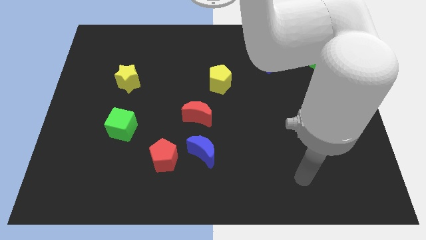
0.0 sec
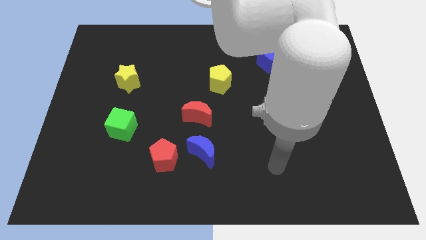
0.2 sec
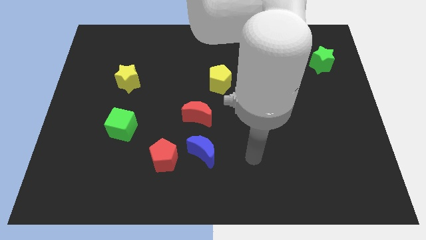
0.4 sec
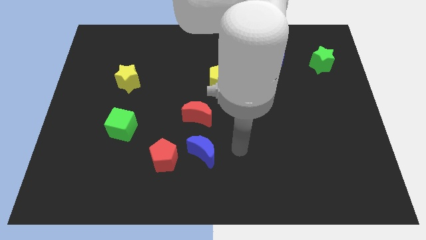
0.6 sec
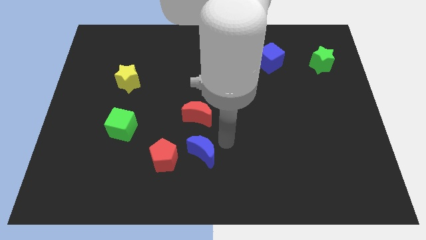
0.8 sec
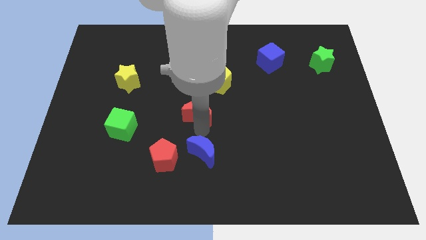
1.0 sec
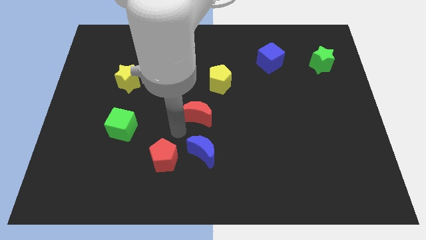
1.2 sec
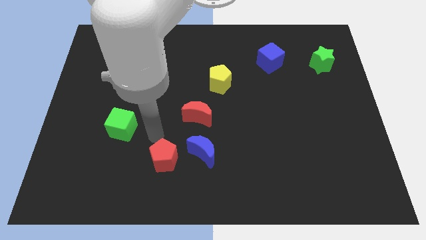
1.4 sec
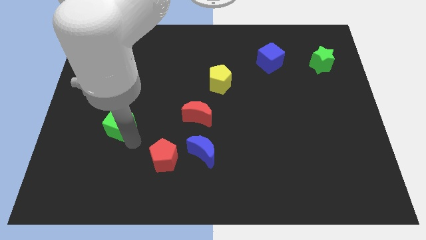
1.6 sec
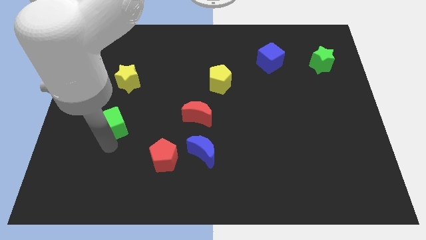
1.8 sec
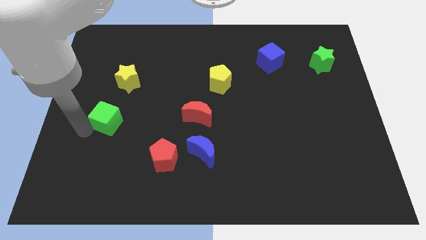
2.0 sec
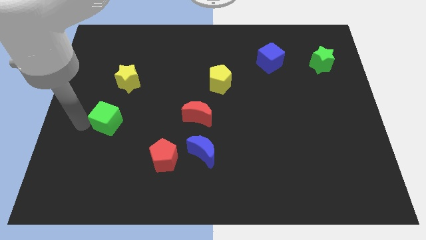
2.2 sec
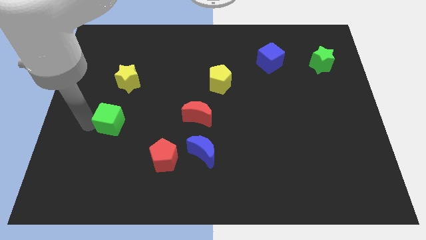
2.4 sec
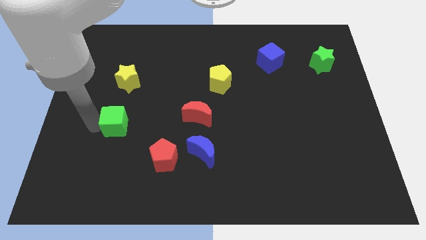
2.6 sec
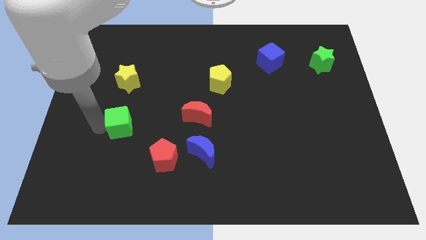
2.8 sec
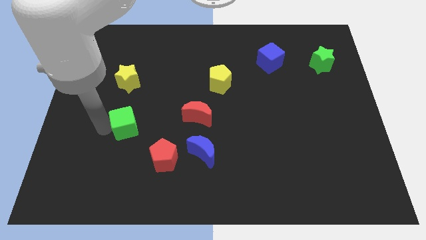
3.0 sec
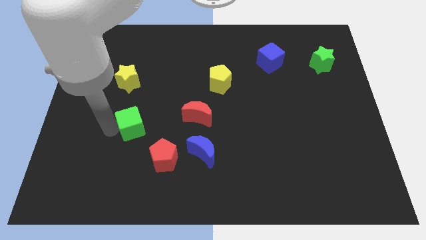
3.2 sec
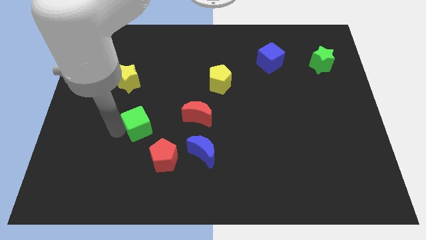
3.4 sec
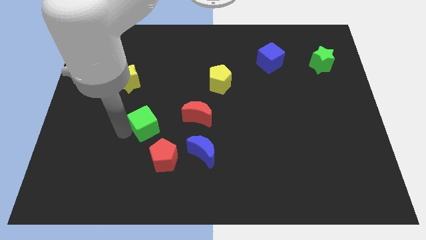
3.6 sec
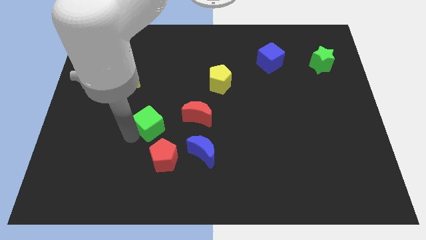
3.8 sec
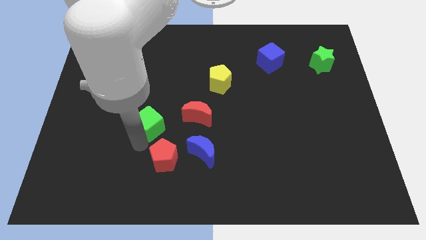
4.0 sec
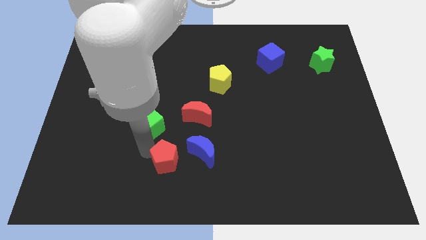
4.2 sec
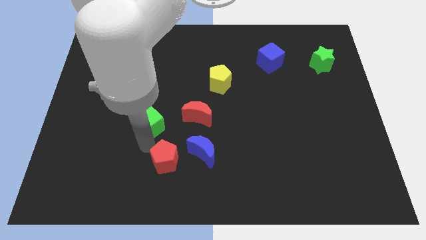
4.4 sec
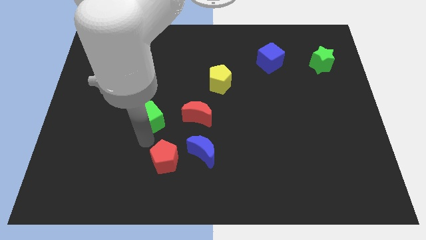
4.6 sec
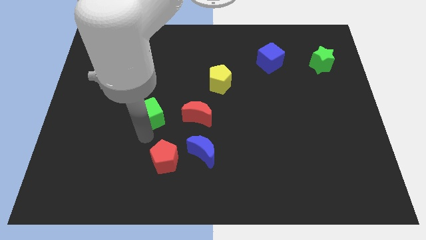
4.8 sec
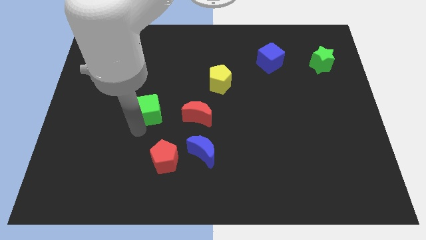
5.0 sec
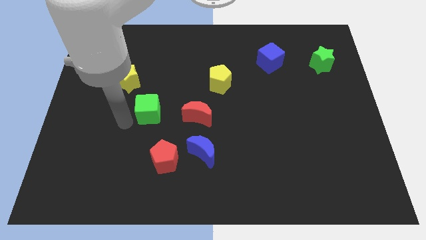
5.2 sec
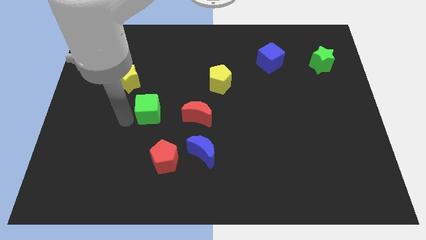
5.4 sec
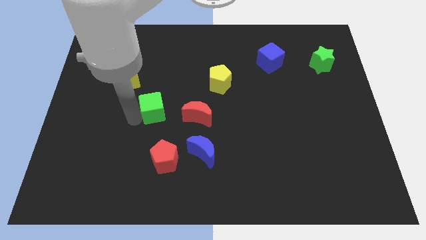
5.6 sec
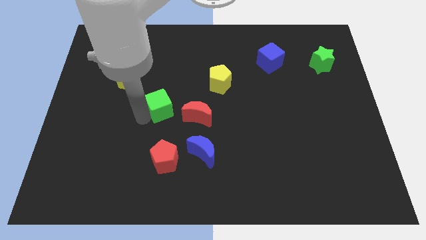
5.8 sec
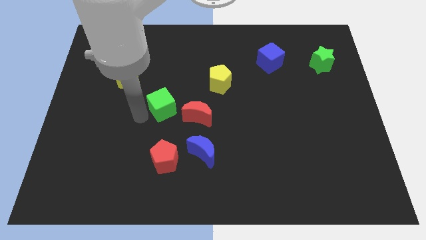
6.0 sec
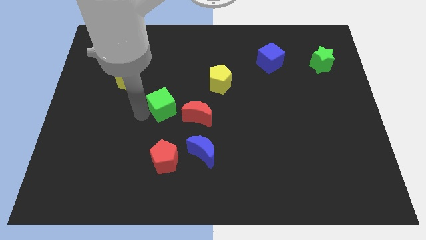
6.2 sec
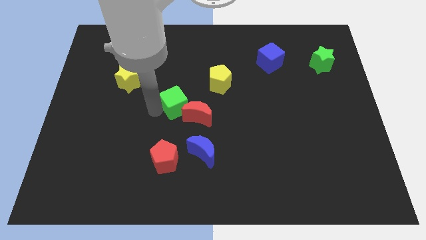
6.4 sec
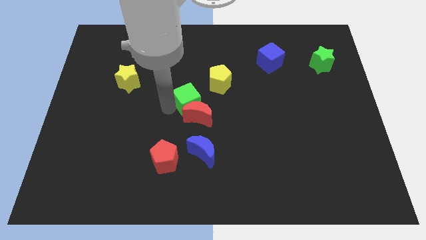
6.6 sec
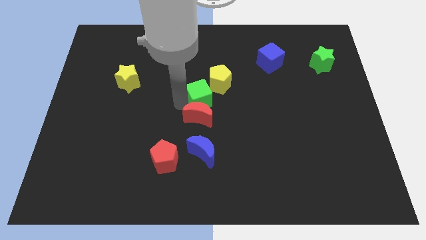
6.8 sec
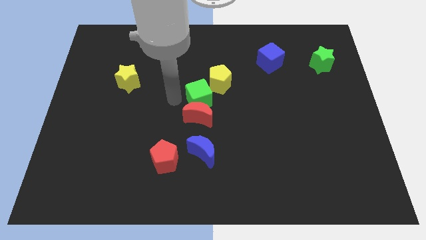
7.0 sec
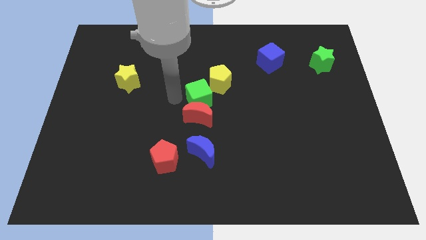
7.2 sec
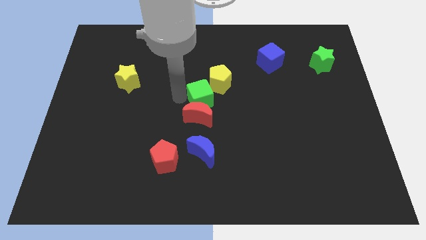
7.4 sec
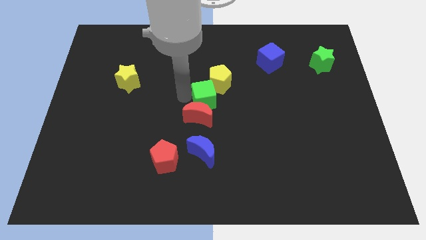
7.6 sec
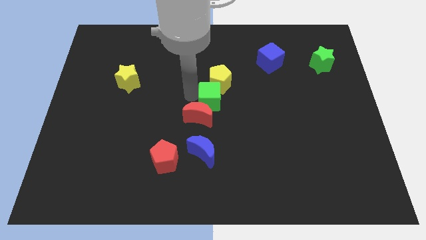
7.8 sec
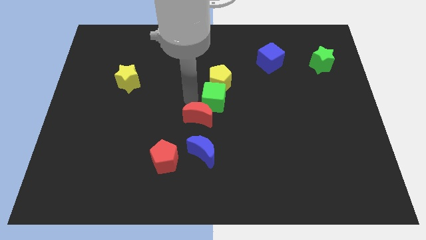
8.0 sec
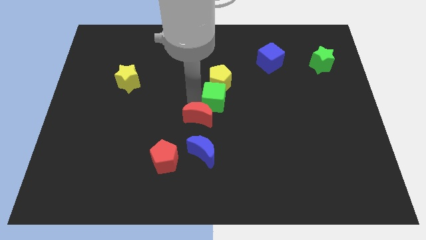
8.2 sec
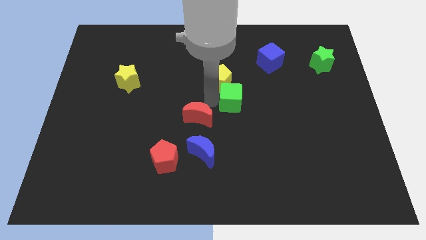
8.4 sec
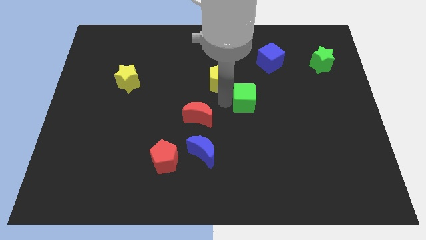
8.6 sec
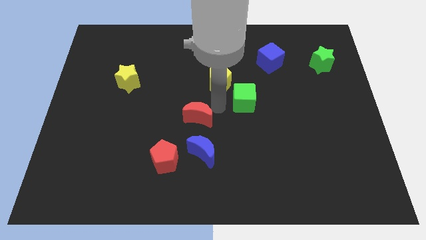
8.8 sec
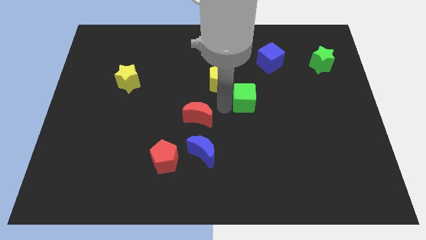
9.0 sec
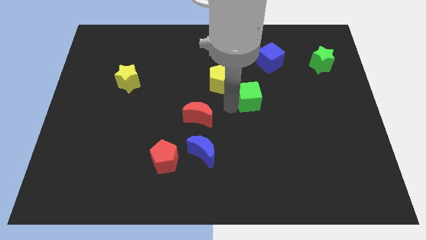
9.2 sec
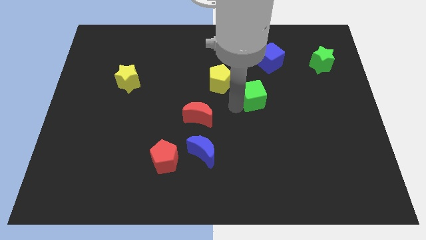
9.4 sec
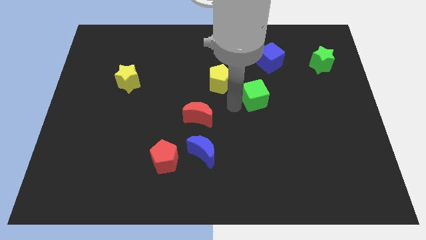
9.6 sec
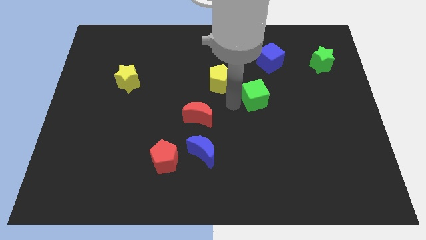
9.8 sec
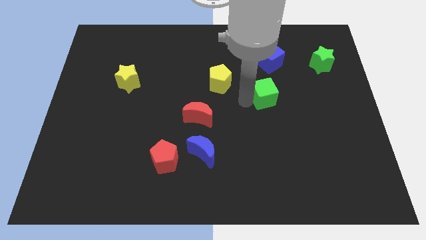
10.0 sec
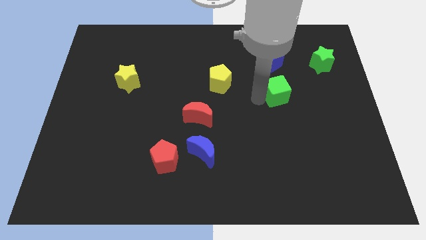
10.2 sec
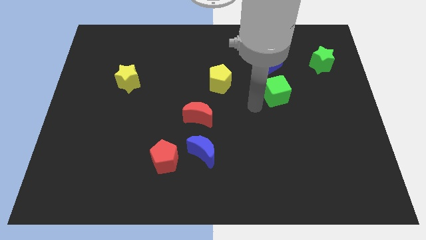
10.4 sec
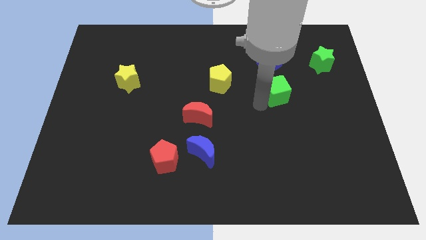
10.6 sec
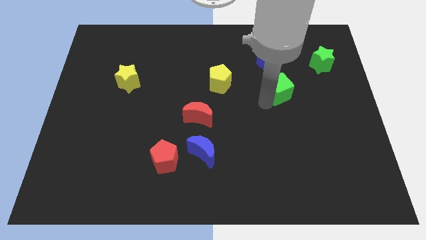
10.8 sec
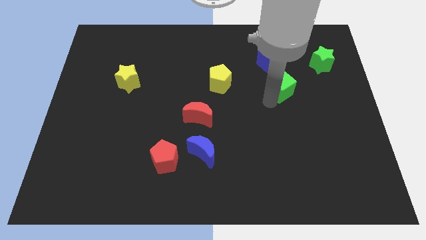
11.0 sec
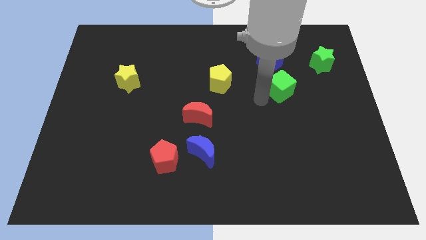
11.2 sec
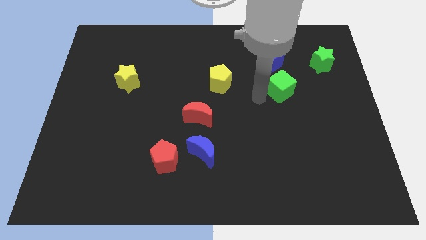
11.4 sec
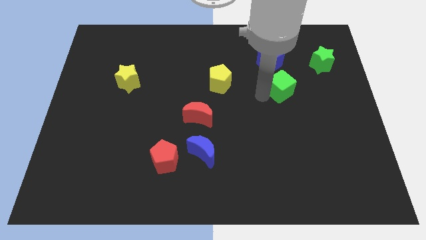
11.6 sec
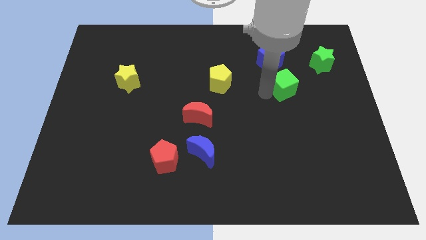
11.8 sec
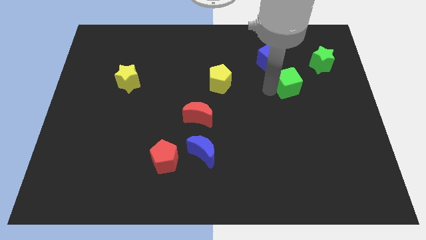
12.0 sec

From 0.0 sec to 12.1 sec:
put the green cube to the bottom left side of the green star

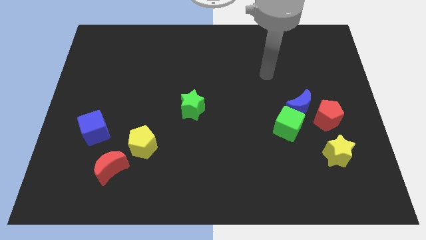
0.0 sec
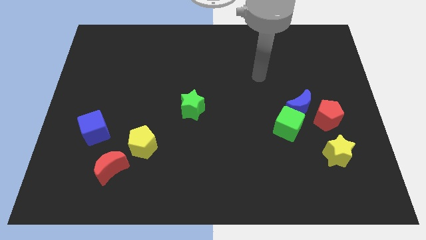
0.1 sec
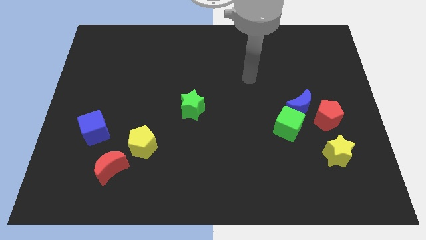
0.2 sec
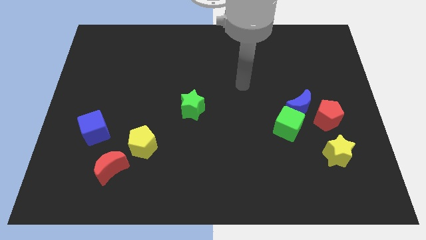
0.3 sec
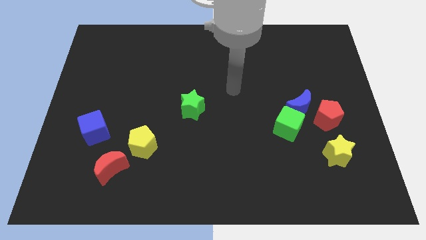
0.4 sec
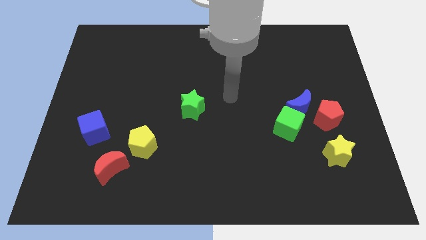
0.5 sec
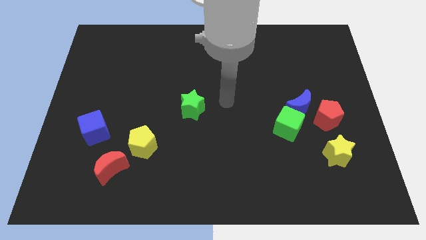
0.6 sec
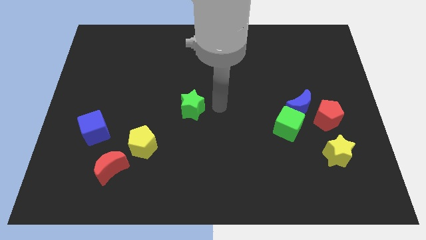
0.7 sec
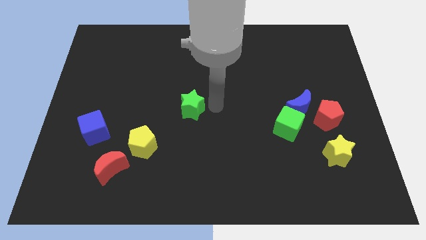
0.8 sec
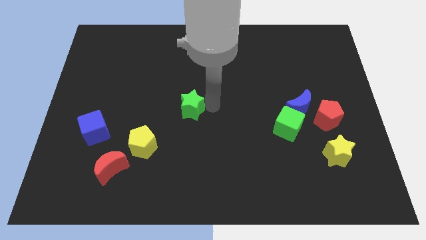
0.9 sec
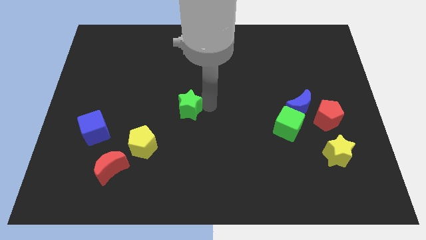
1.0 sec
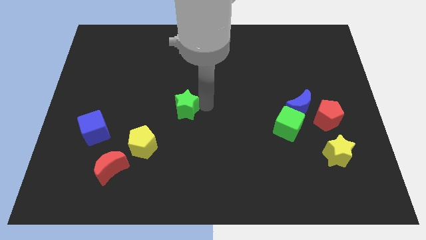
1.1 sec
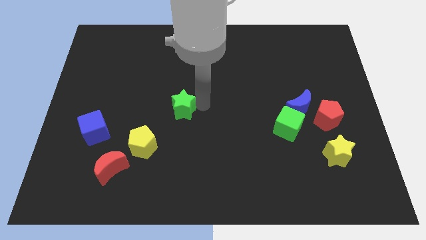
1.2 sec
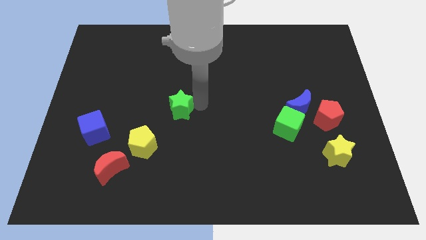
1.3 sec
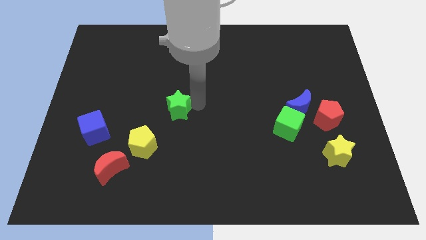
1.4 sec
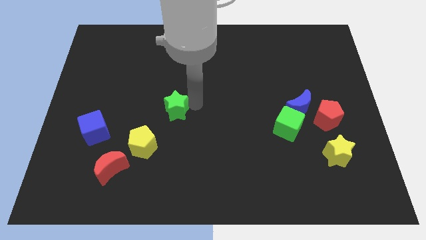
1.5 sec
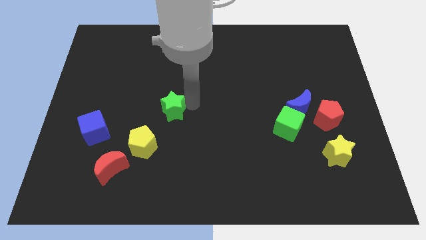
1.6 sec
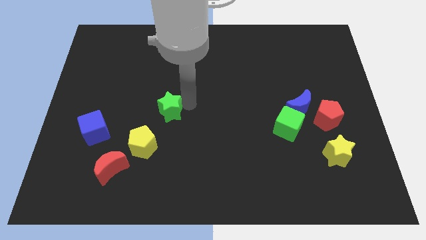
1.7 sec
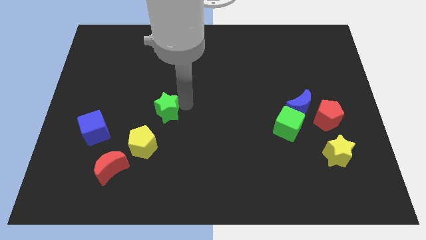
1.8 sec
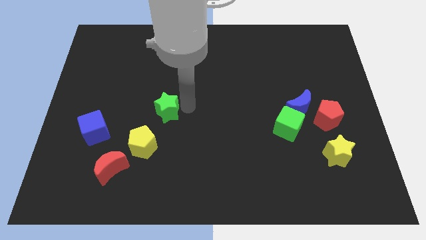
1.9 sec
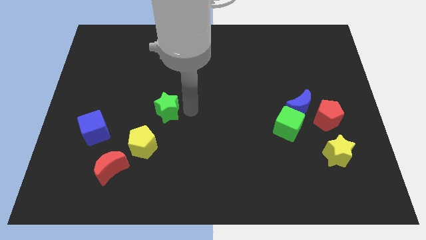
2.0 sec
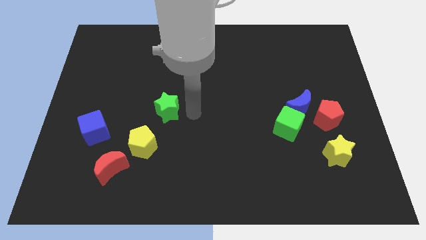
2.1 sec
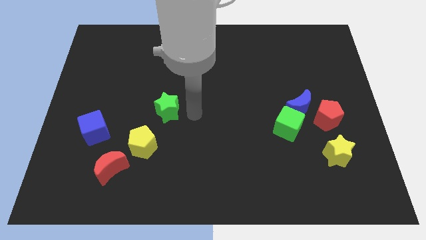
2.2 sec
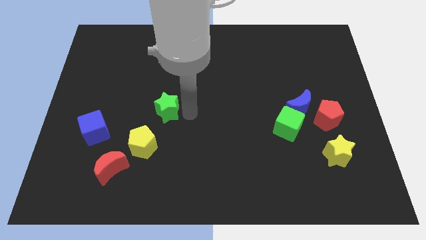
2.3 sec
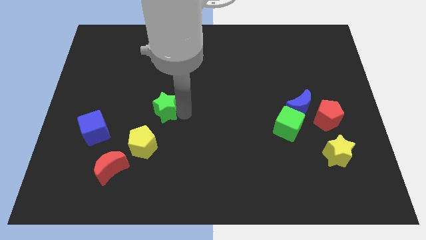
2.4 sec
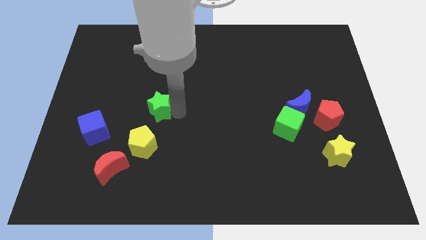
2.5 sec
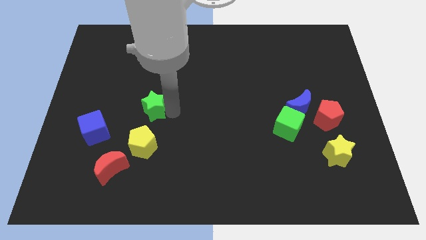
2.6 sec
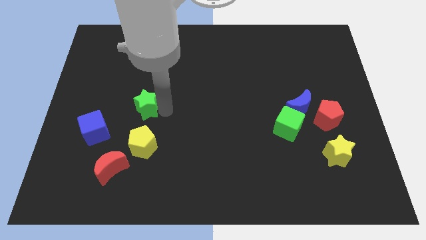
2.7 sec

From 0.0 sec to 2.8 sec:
put the green star diagonally up and to the right of the blue cube
